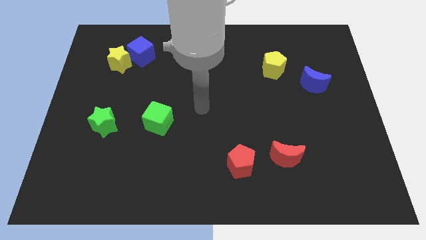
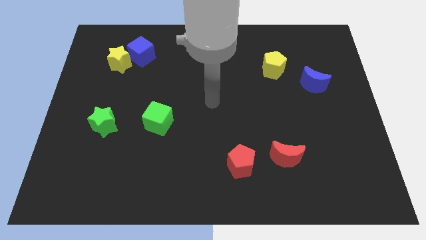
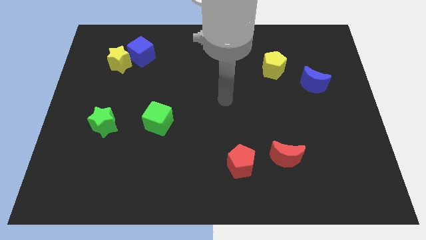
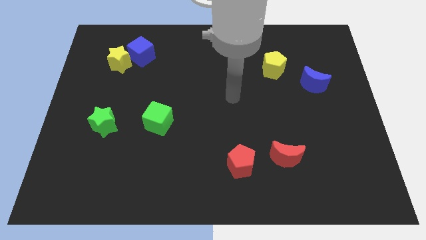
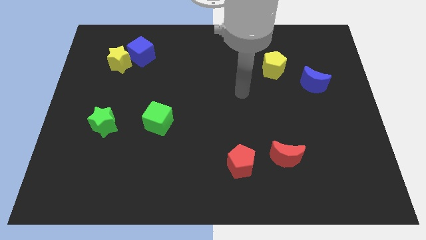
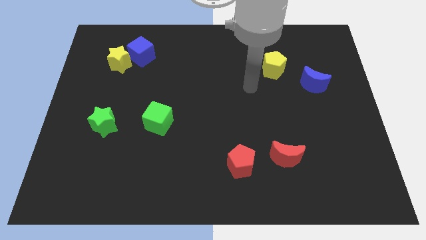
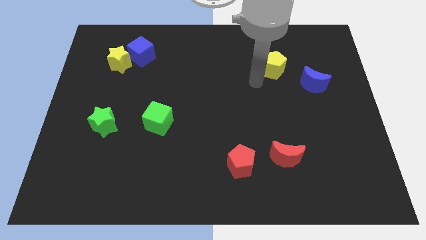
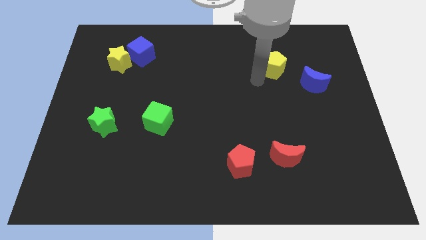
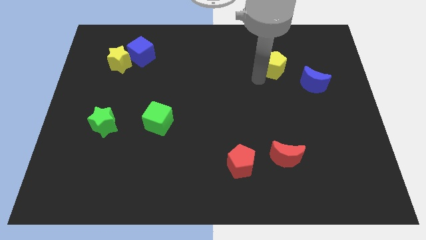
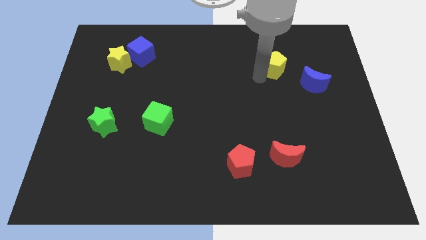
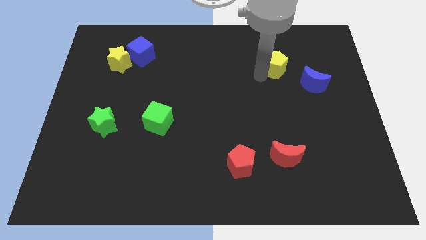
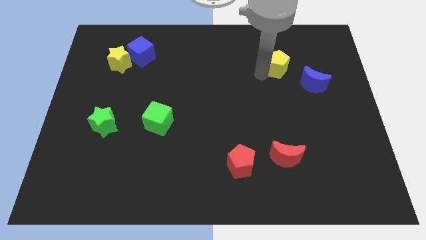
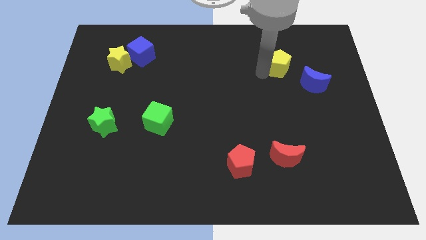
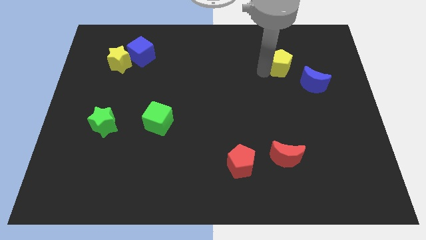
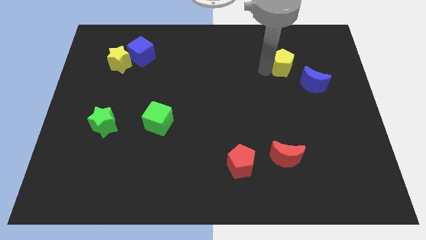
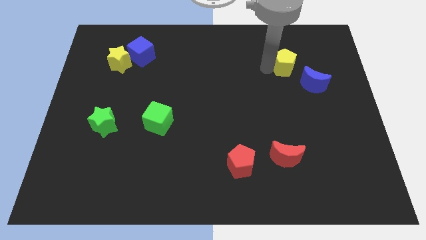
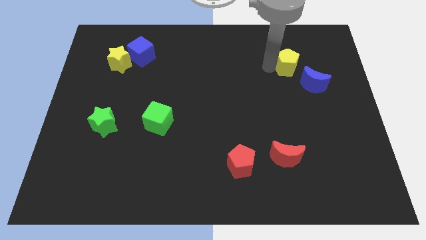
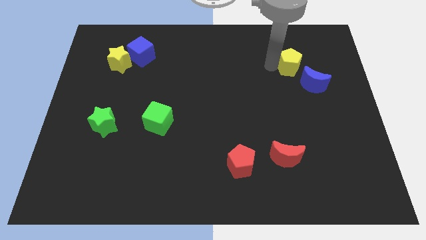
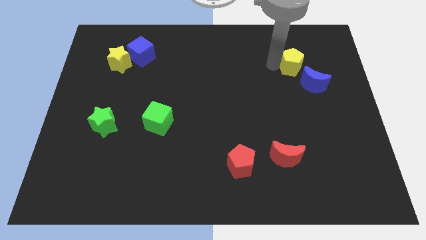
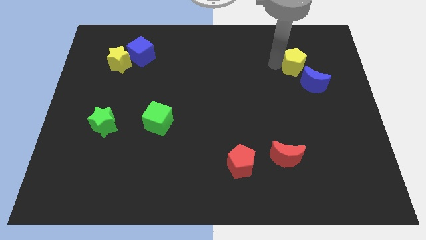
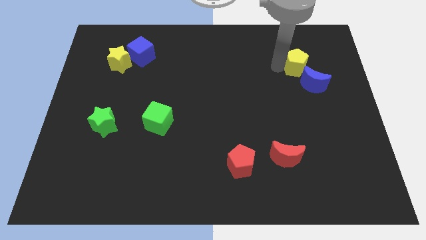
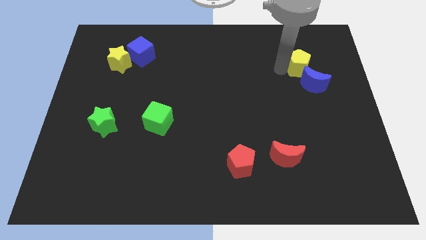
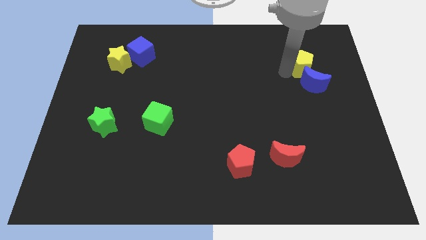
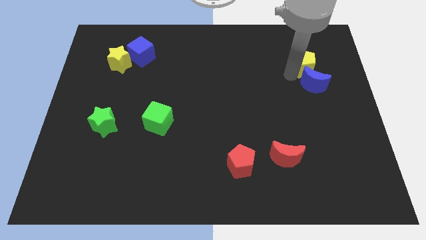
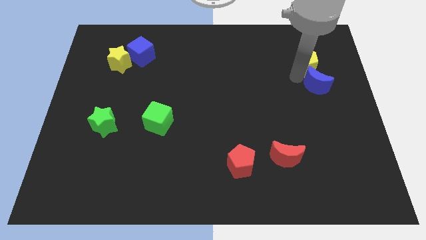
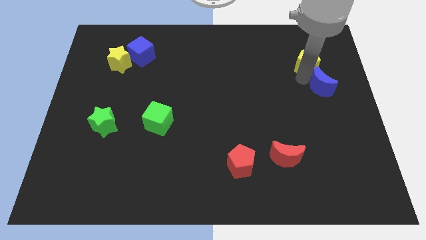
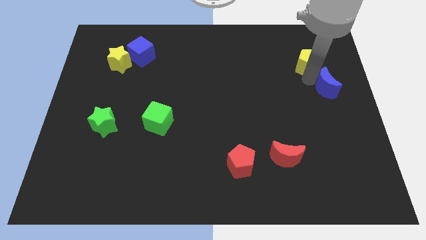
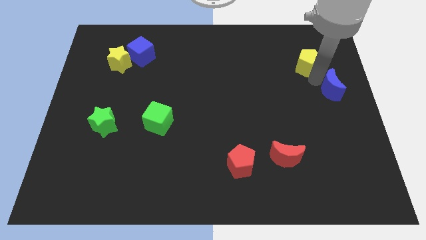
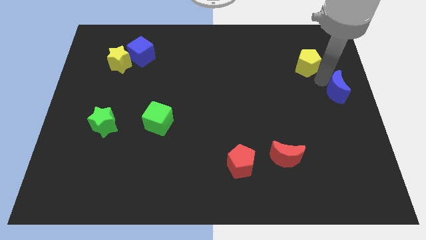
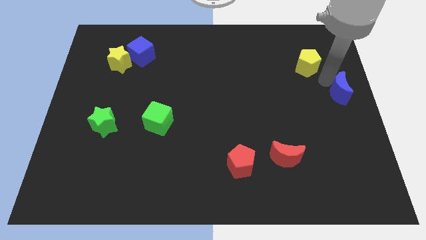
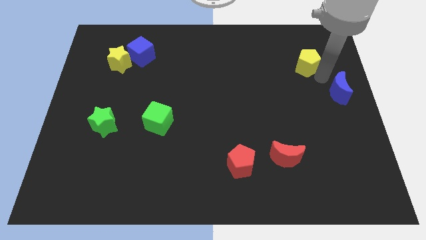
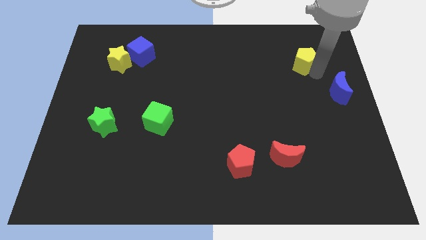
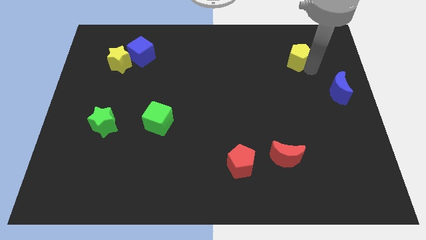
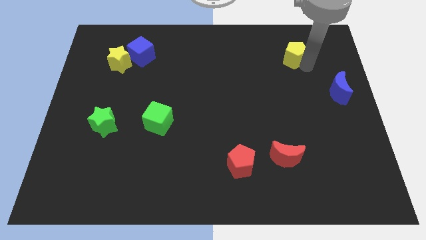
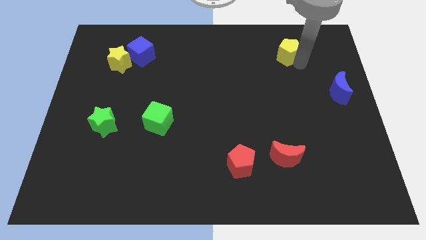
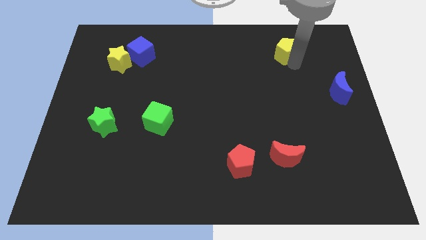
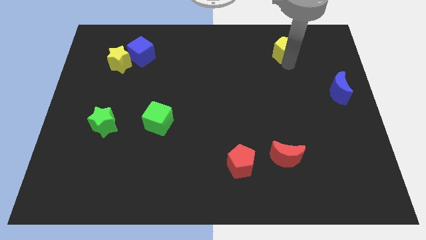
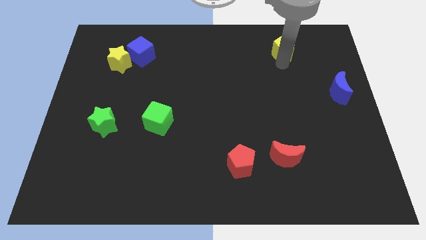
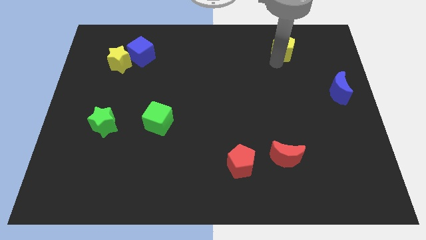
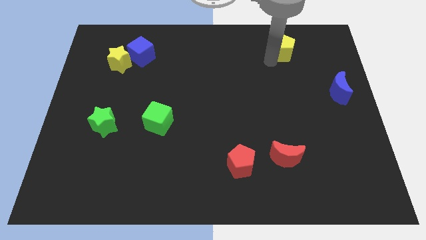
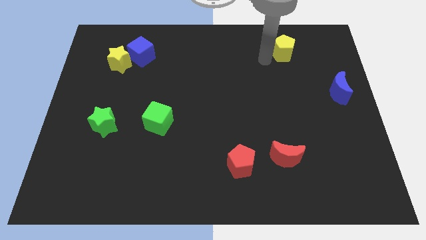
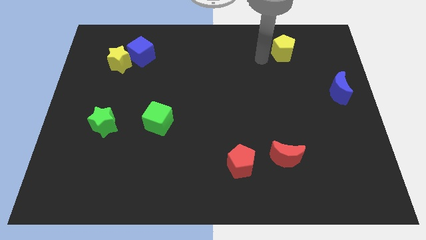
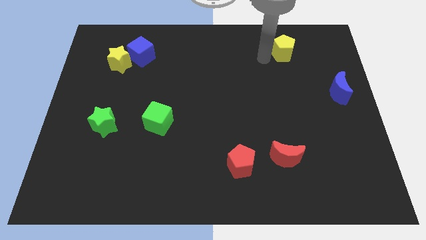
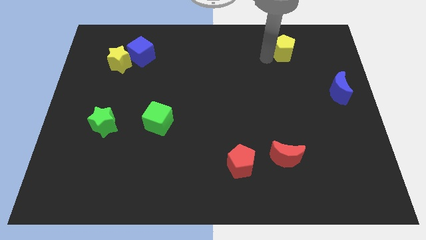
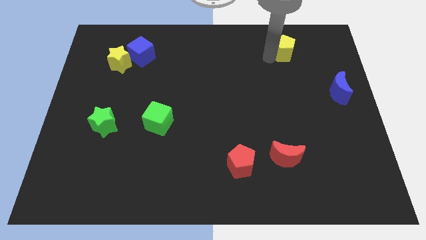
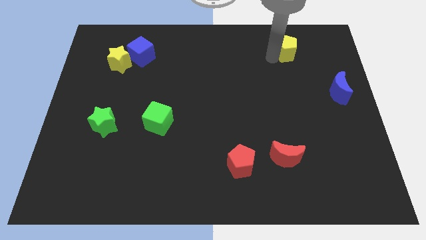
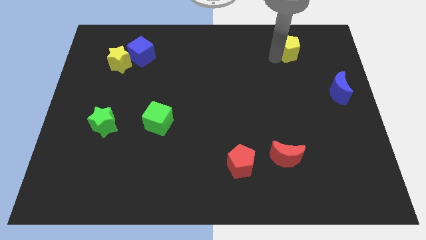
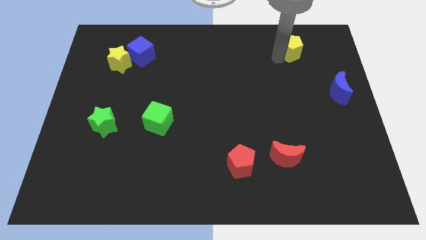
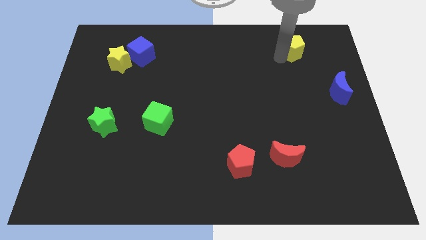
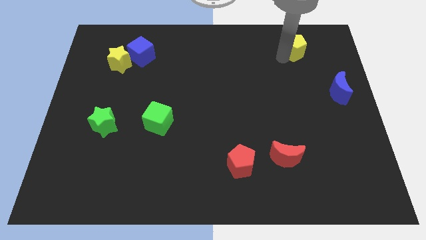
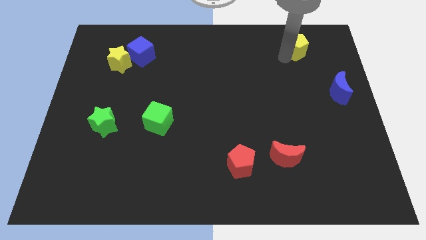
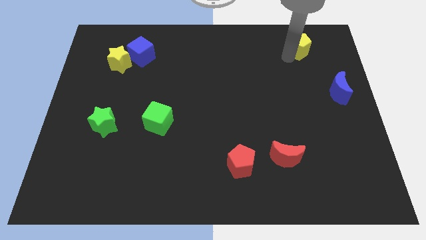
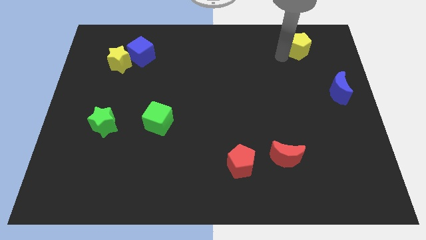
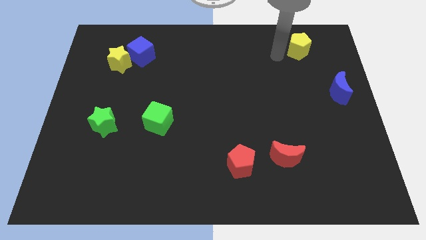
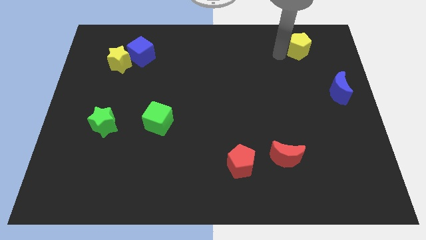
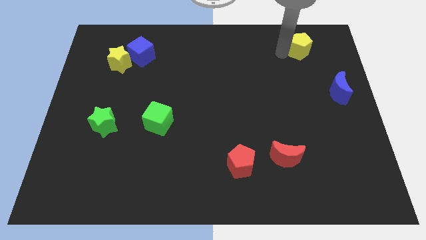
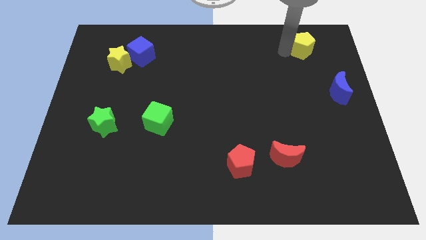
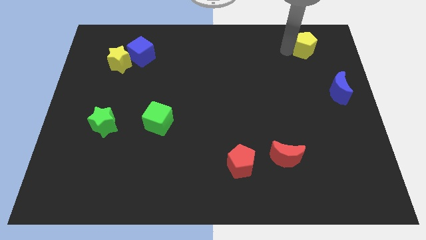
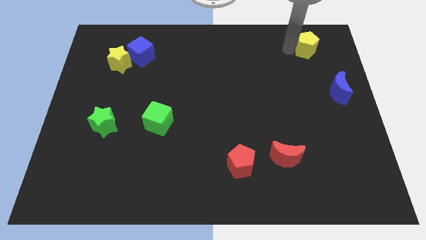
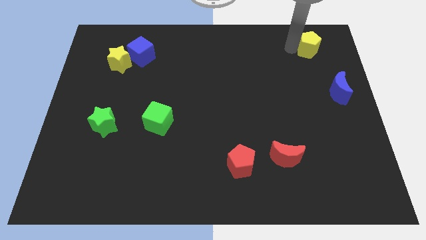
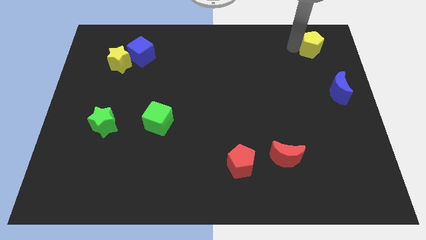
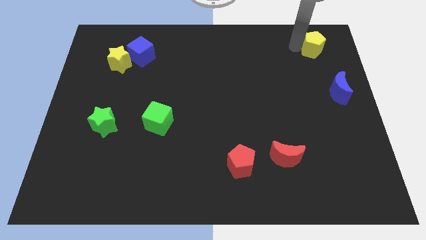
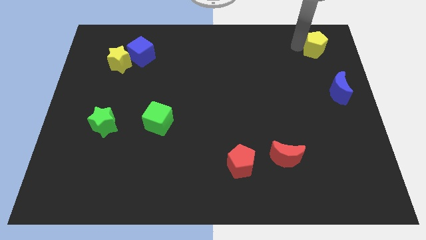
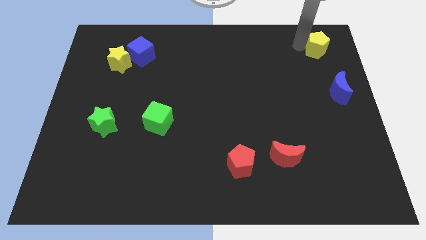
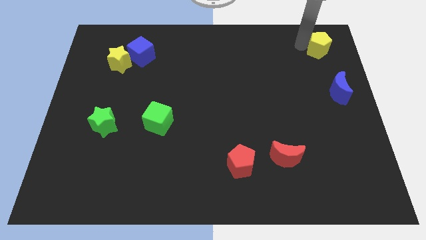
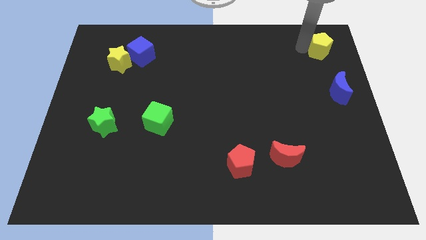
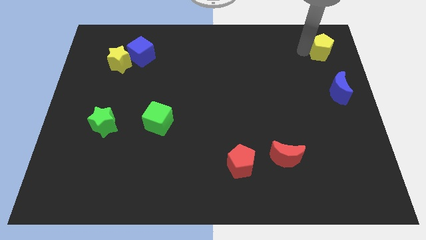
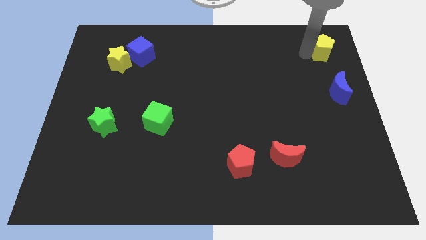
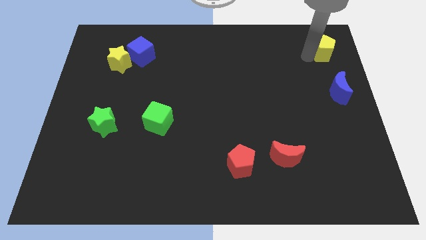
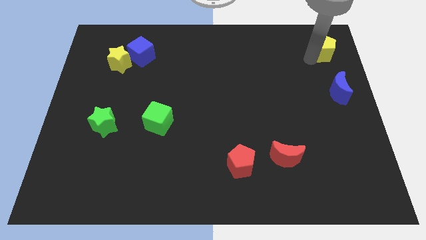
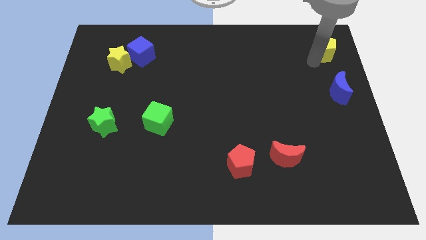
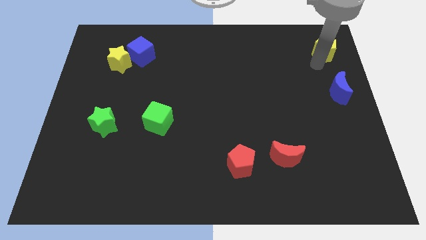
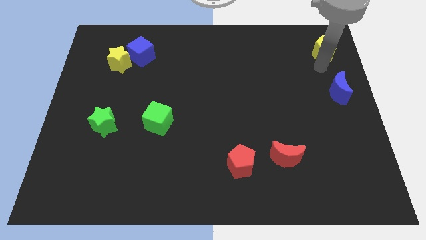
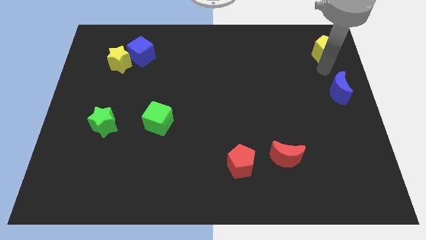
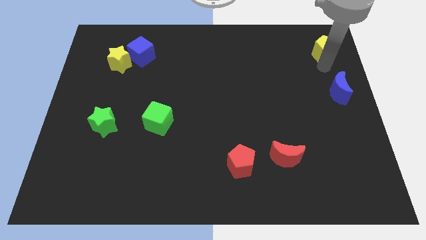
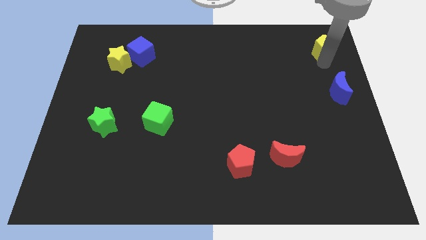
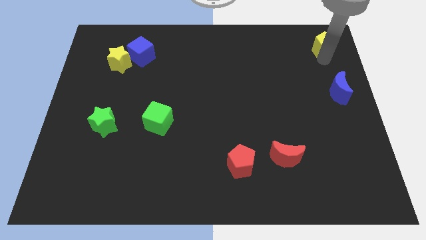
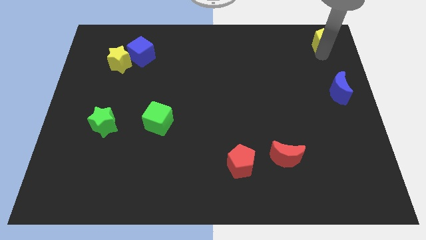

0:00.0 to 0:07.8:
push the yellow pentagon to the top right corner
